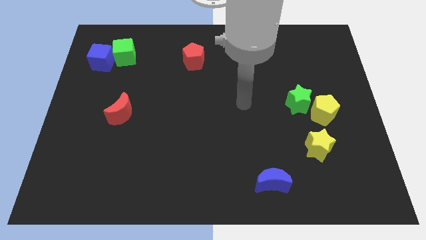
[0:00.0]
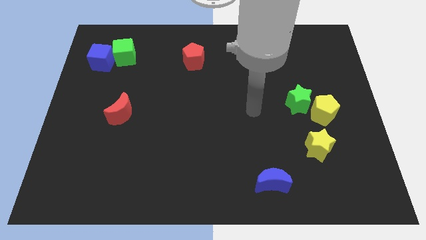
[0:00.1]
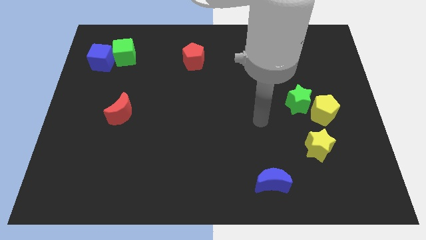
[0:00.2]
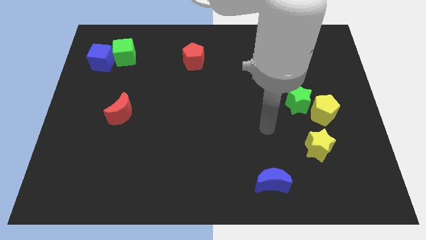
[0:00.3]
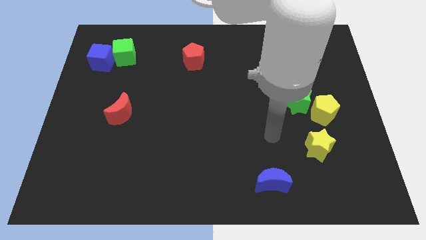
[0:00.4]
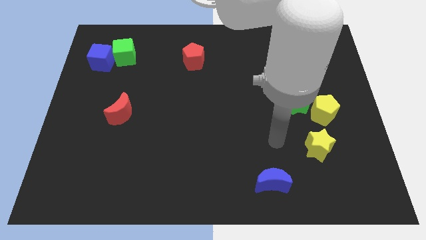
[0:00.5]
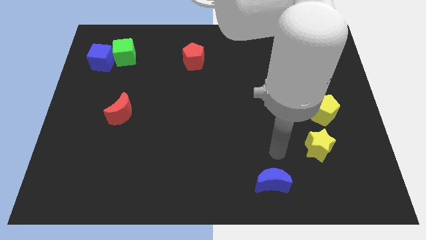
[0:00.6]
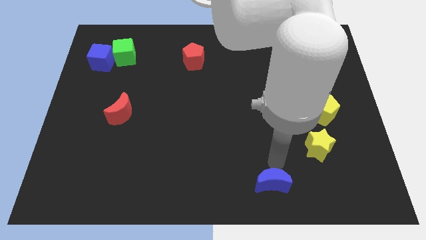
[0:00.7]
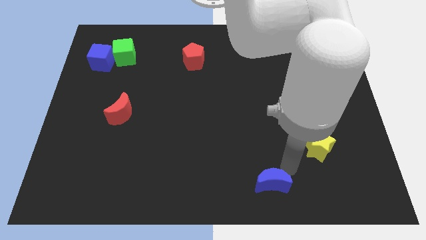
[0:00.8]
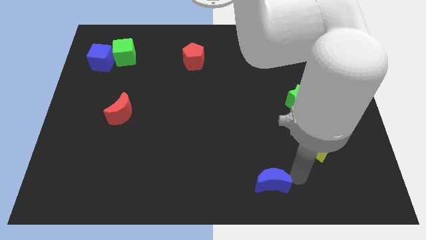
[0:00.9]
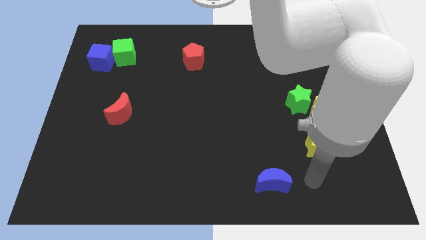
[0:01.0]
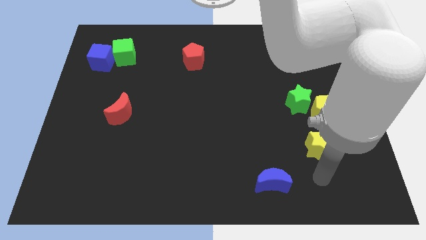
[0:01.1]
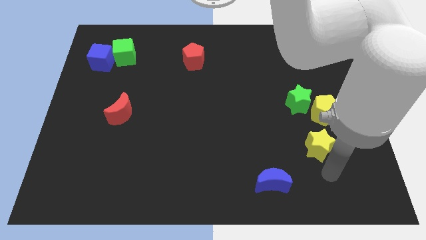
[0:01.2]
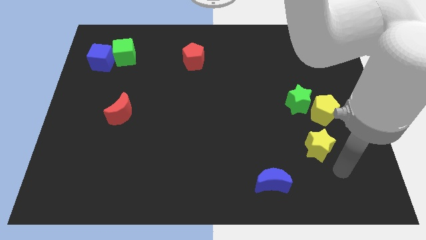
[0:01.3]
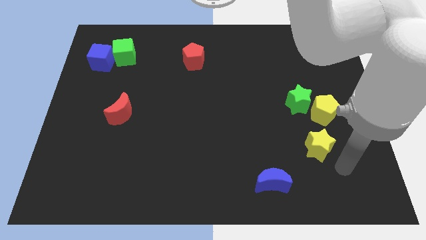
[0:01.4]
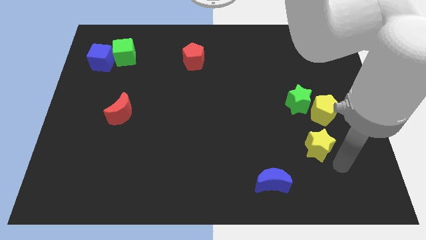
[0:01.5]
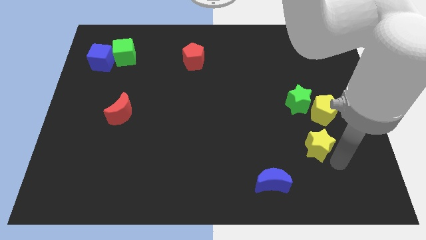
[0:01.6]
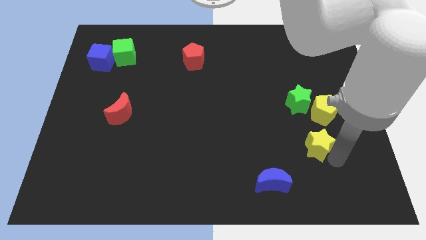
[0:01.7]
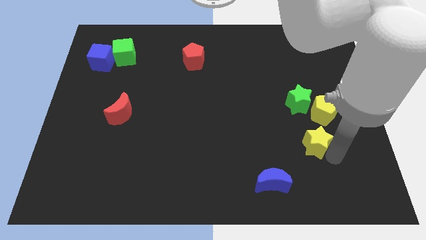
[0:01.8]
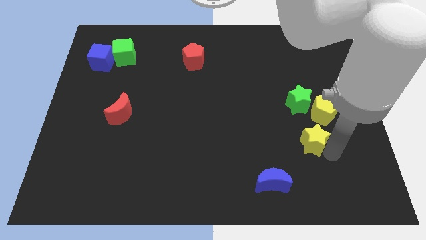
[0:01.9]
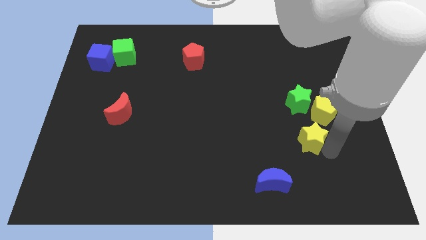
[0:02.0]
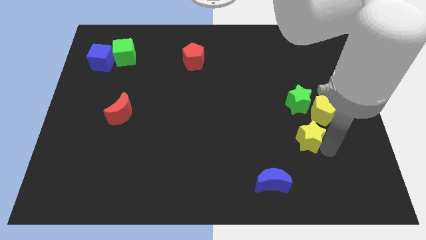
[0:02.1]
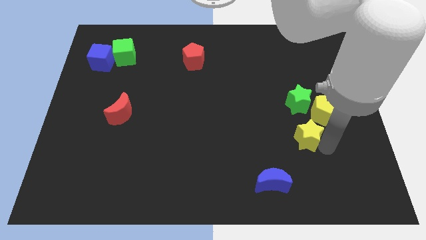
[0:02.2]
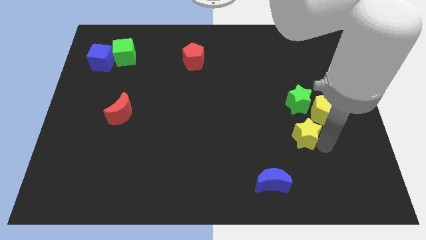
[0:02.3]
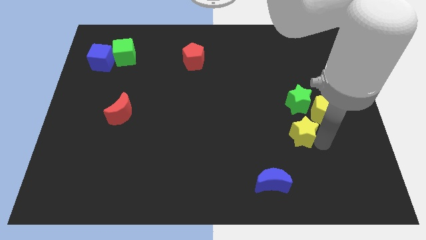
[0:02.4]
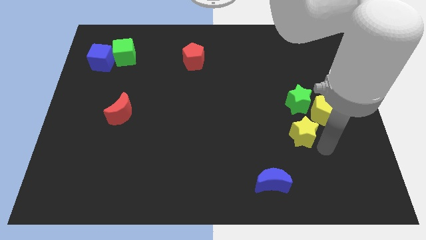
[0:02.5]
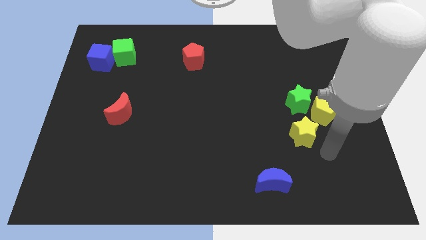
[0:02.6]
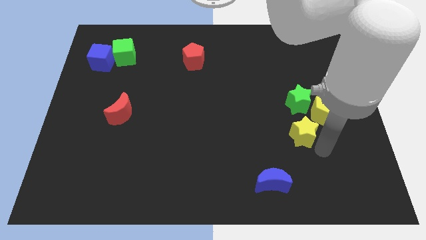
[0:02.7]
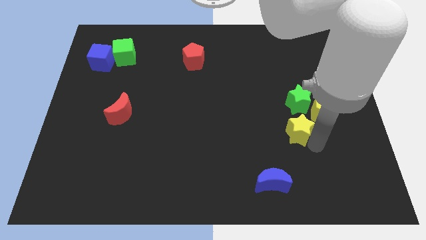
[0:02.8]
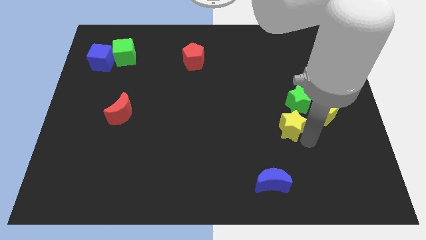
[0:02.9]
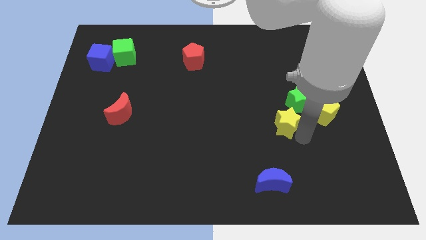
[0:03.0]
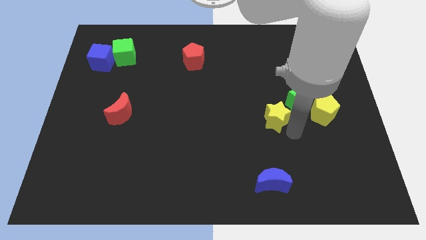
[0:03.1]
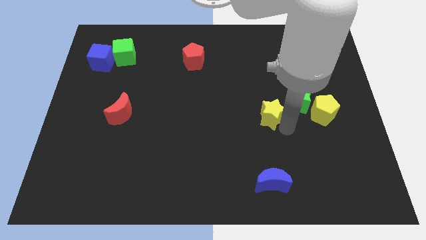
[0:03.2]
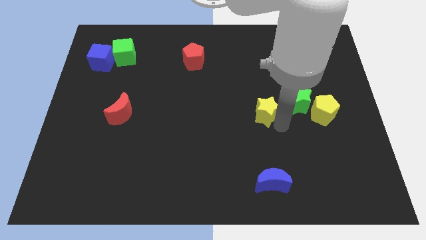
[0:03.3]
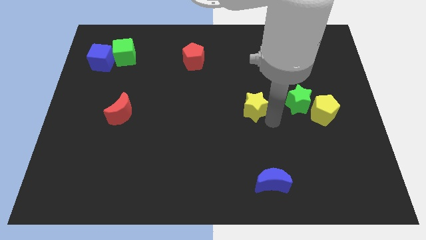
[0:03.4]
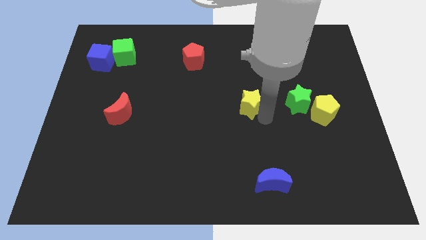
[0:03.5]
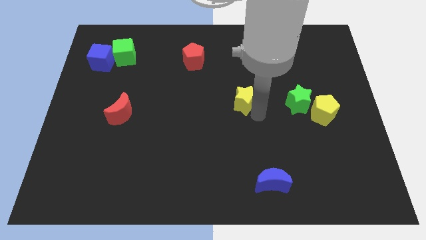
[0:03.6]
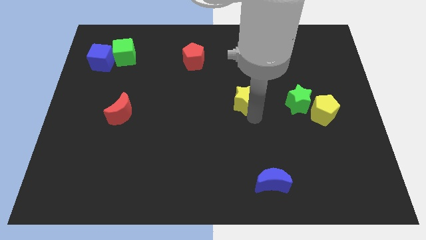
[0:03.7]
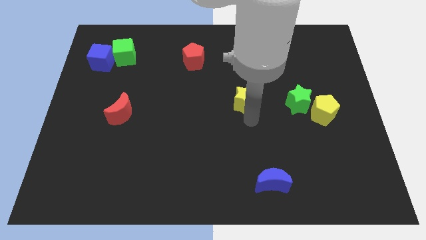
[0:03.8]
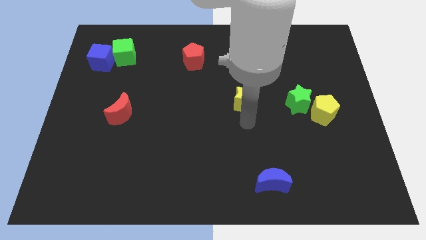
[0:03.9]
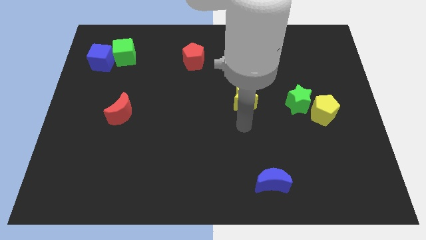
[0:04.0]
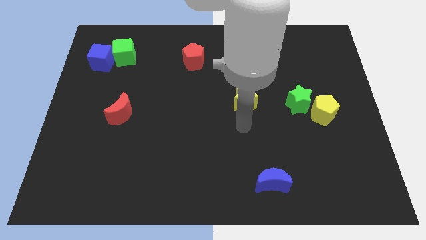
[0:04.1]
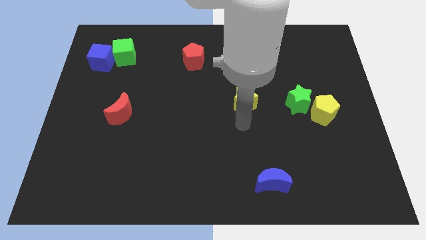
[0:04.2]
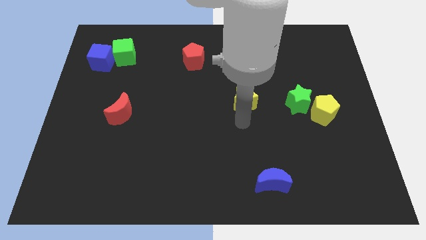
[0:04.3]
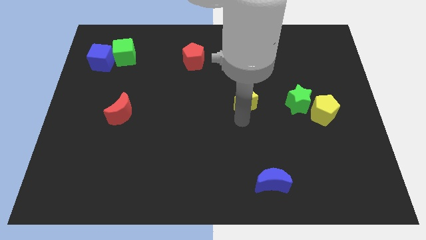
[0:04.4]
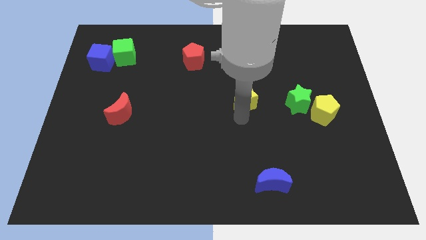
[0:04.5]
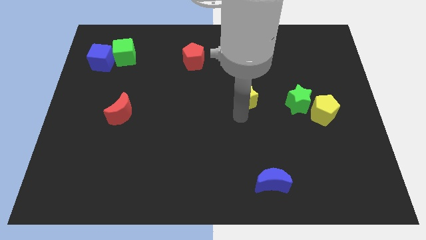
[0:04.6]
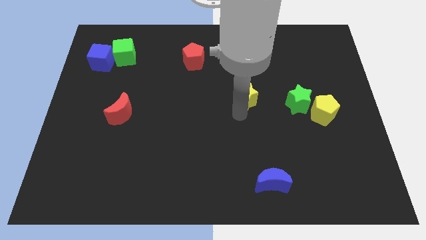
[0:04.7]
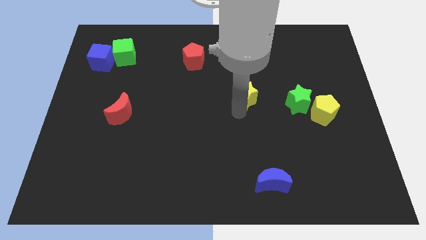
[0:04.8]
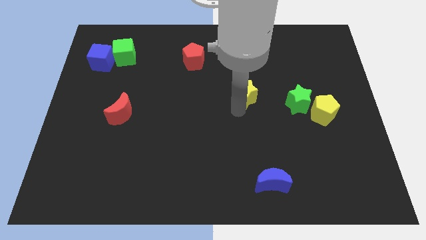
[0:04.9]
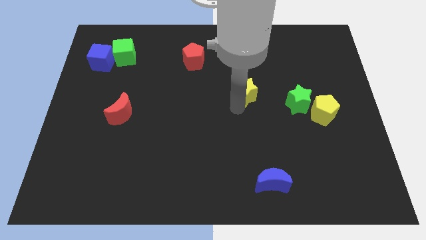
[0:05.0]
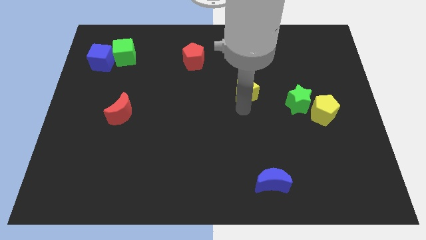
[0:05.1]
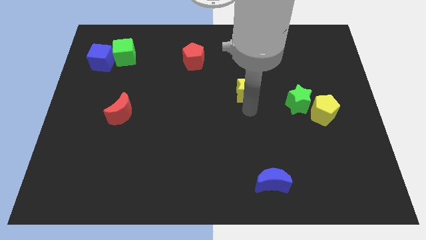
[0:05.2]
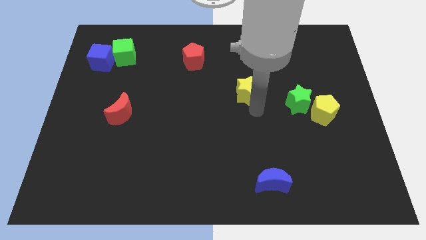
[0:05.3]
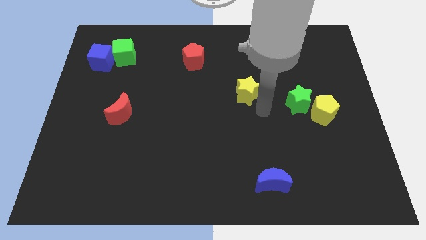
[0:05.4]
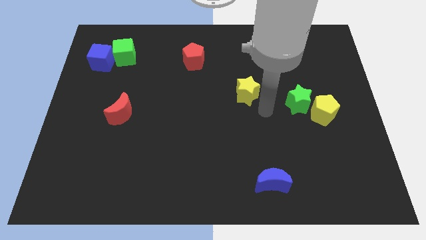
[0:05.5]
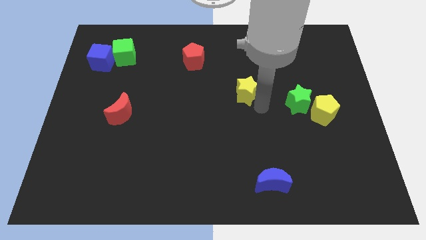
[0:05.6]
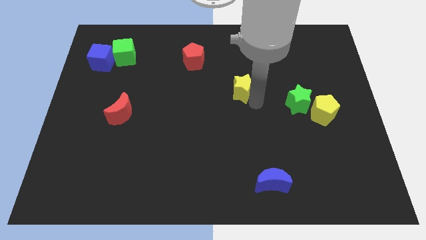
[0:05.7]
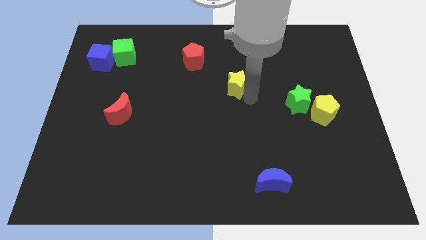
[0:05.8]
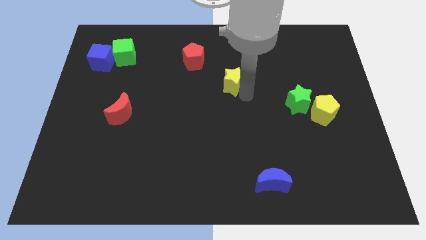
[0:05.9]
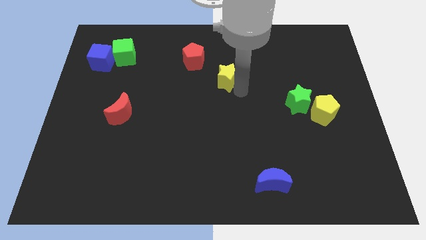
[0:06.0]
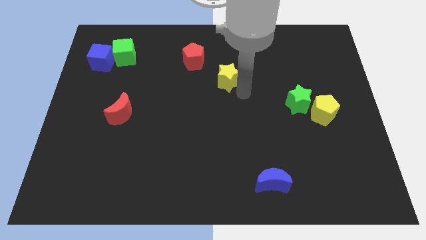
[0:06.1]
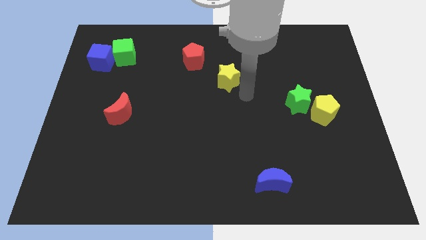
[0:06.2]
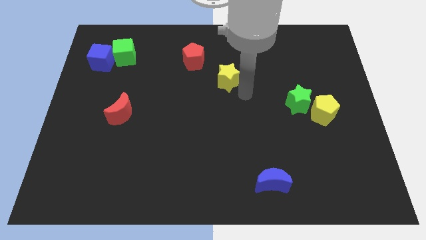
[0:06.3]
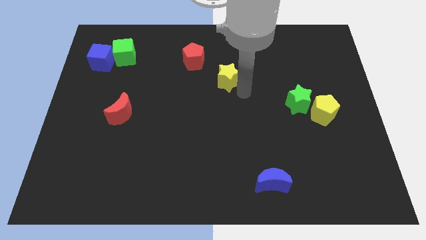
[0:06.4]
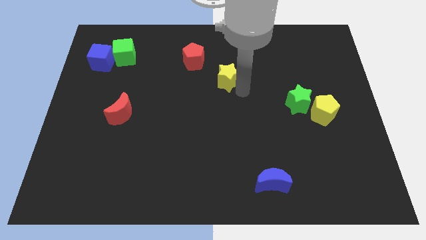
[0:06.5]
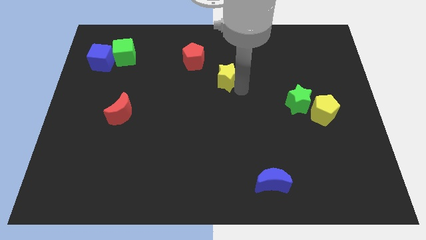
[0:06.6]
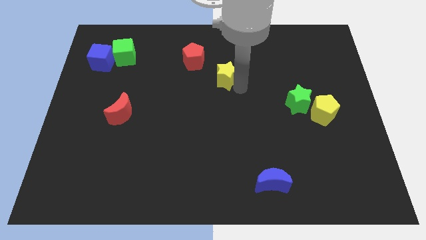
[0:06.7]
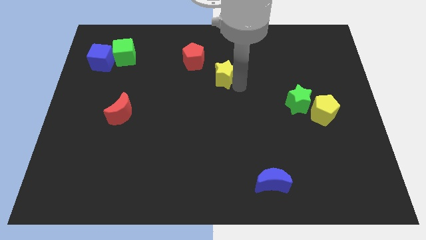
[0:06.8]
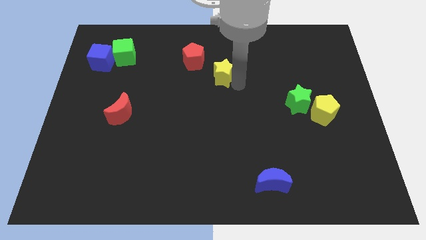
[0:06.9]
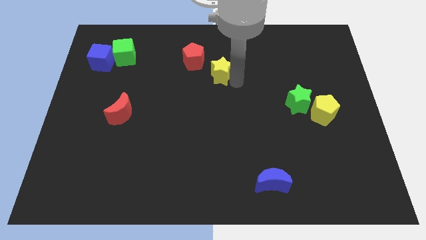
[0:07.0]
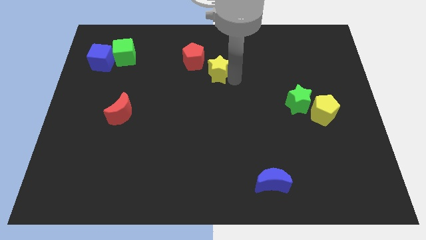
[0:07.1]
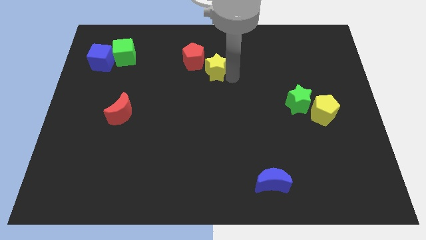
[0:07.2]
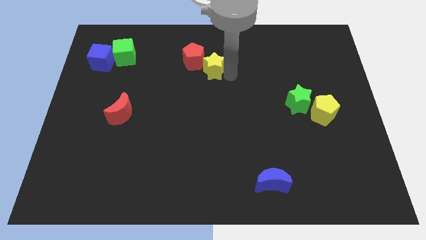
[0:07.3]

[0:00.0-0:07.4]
put the yellow star next to the red pentagon
